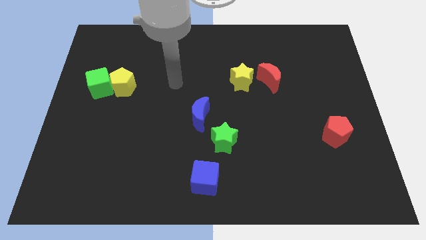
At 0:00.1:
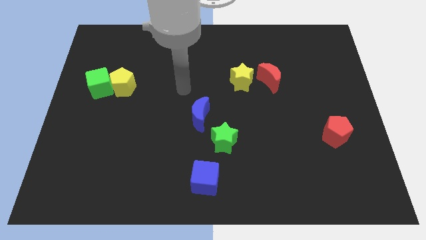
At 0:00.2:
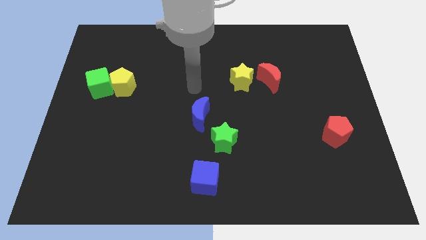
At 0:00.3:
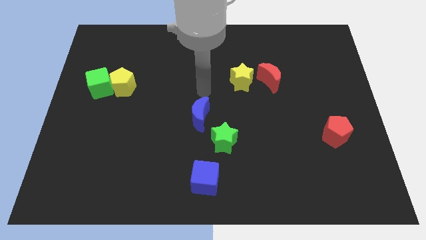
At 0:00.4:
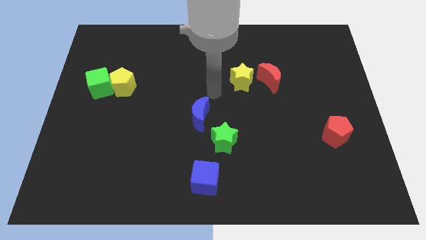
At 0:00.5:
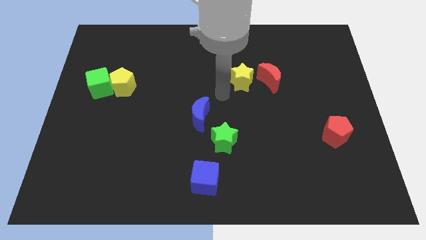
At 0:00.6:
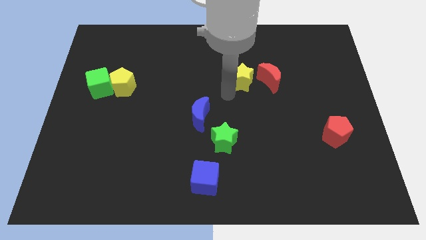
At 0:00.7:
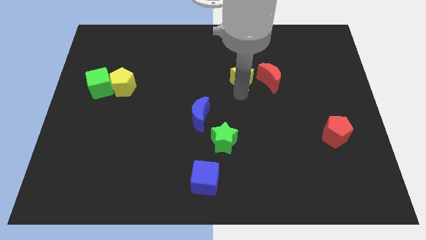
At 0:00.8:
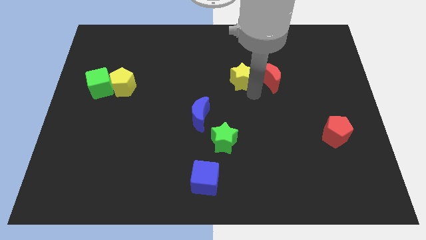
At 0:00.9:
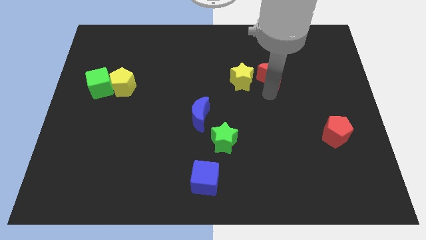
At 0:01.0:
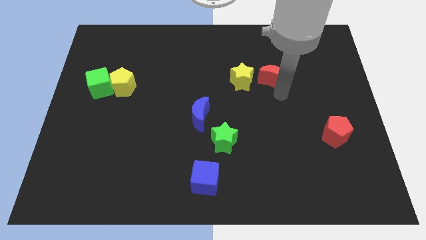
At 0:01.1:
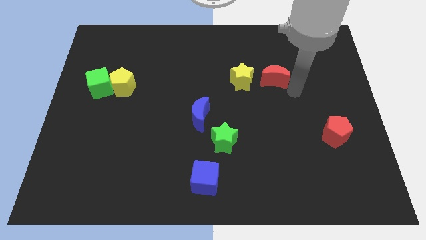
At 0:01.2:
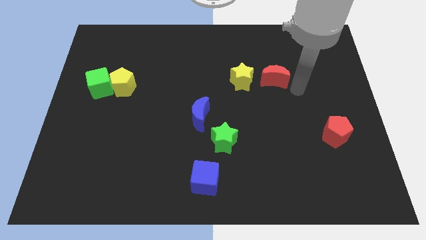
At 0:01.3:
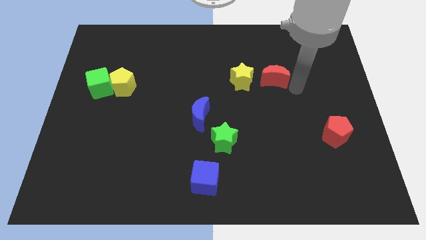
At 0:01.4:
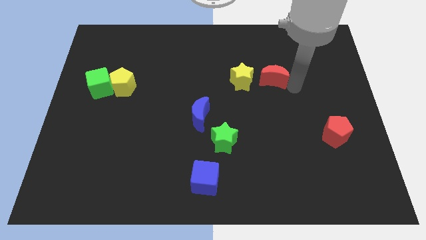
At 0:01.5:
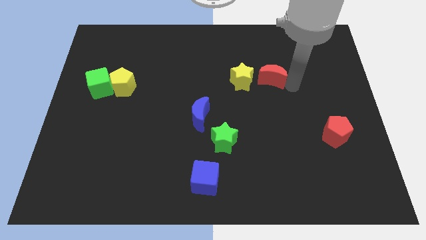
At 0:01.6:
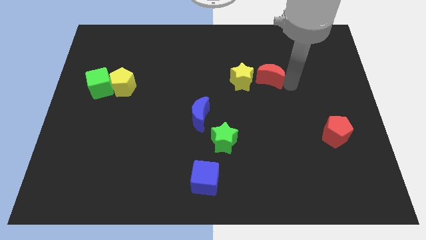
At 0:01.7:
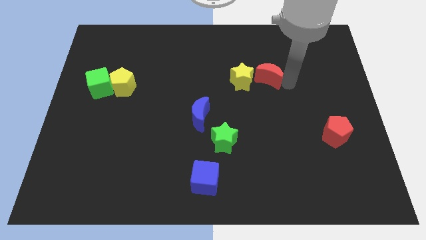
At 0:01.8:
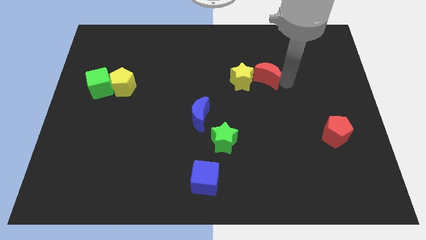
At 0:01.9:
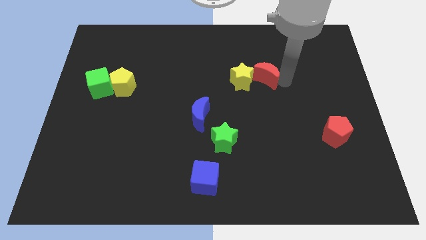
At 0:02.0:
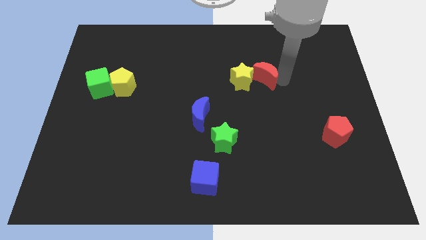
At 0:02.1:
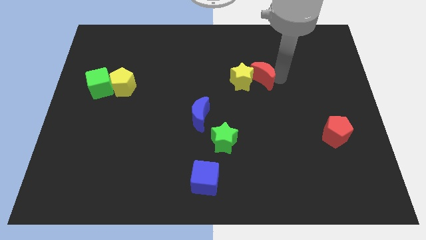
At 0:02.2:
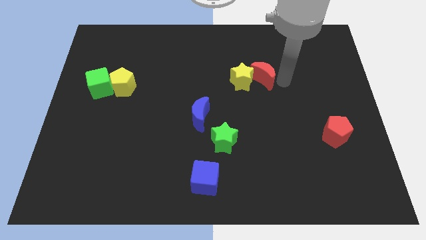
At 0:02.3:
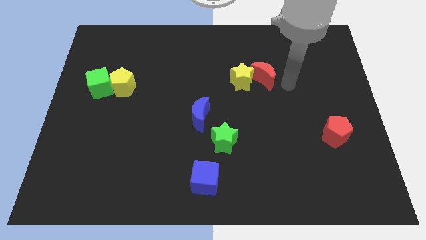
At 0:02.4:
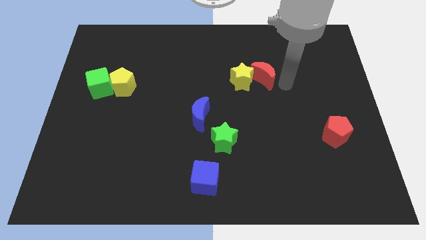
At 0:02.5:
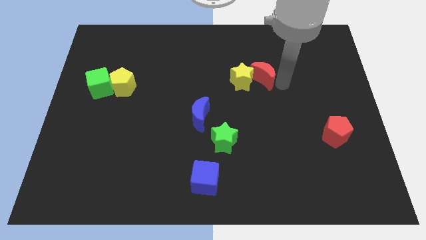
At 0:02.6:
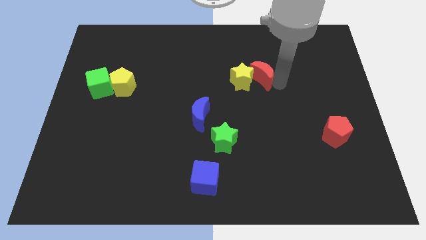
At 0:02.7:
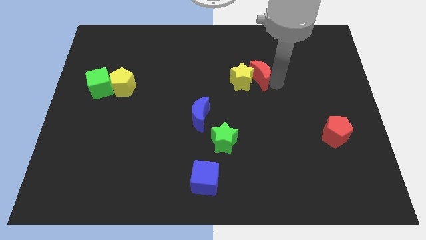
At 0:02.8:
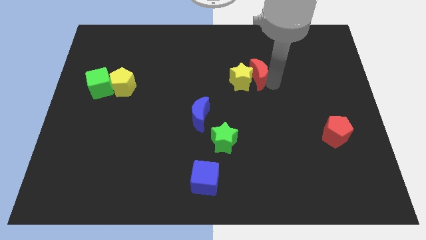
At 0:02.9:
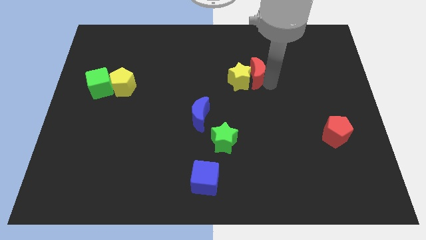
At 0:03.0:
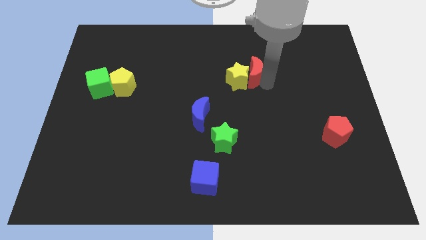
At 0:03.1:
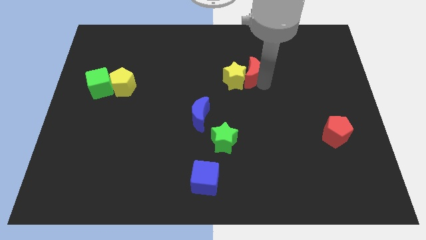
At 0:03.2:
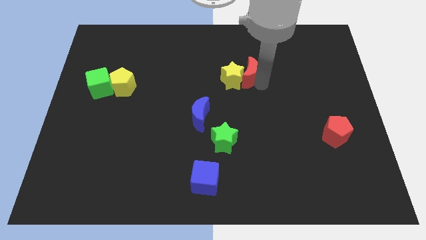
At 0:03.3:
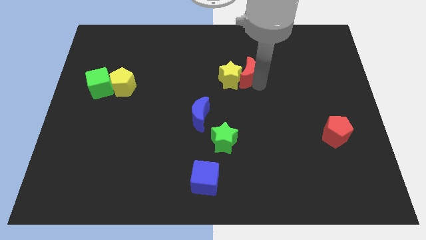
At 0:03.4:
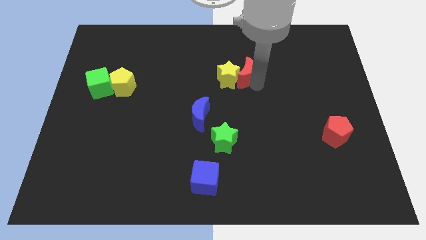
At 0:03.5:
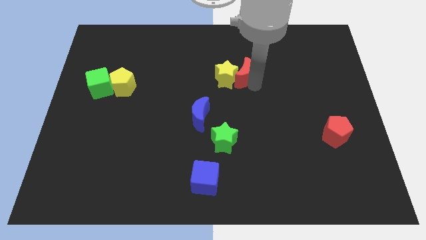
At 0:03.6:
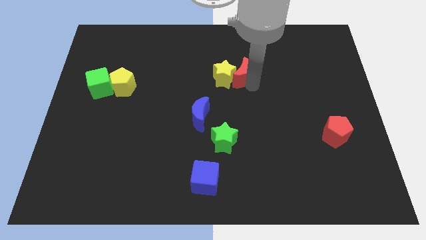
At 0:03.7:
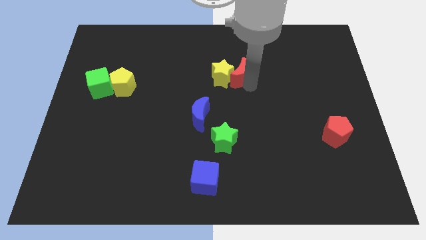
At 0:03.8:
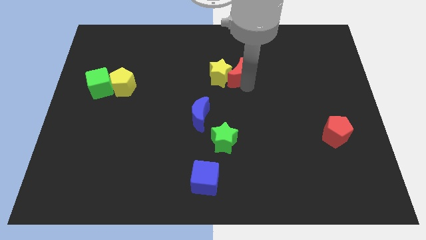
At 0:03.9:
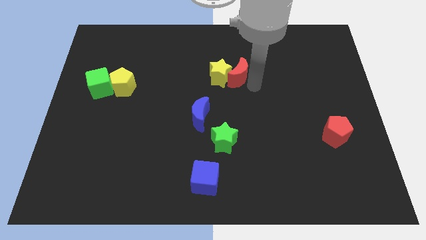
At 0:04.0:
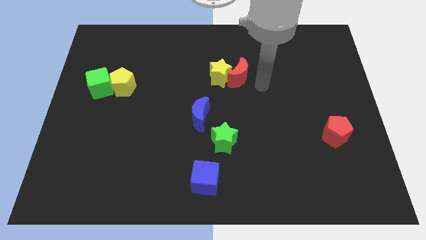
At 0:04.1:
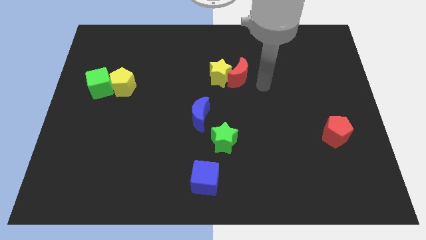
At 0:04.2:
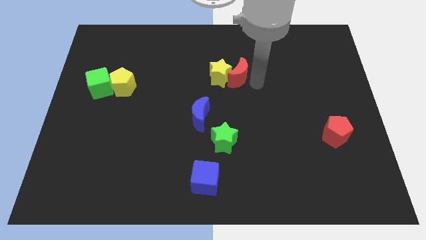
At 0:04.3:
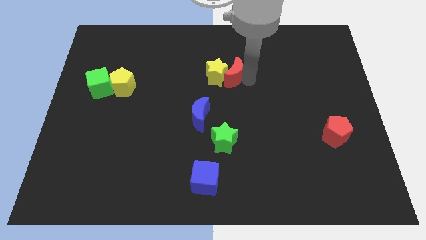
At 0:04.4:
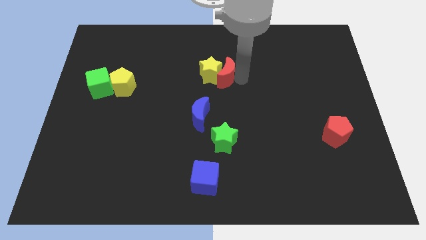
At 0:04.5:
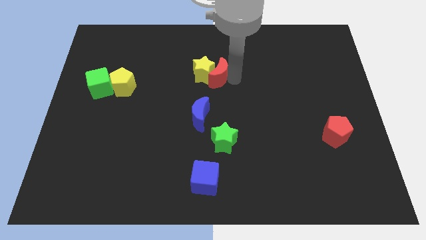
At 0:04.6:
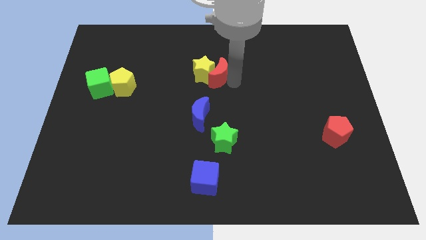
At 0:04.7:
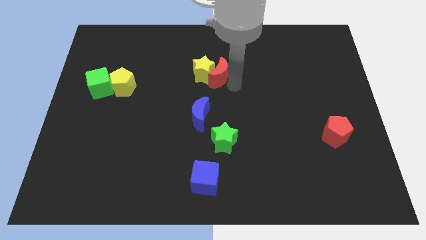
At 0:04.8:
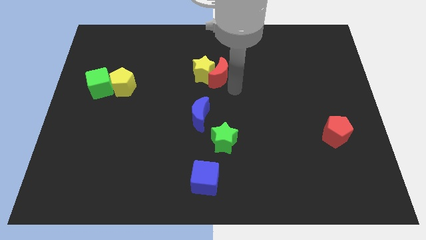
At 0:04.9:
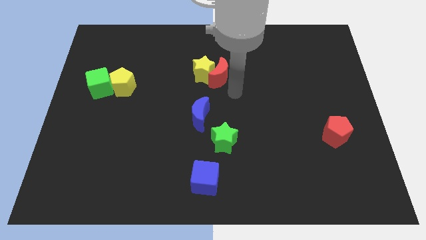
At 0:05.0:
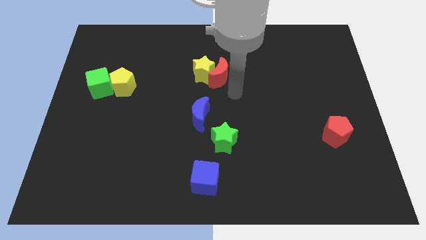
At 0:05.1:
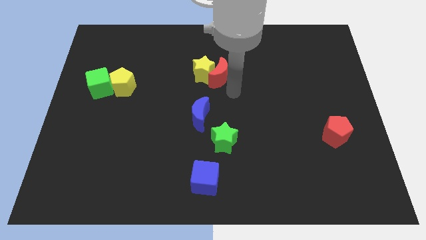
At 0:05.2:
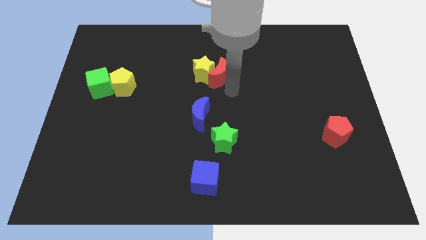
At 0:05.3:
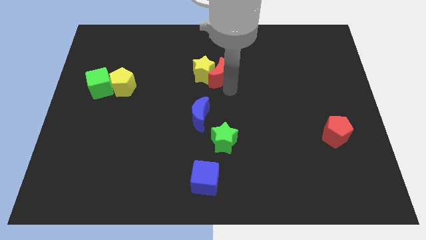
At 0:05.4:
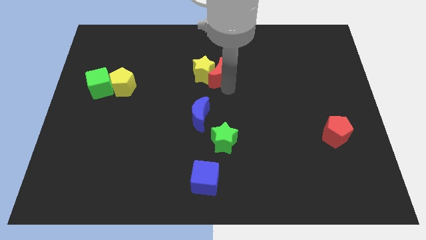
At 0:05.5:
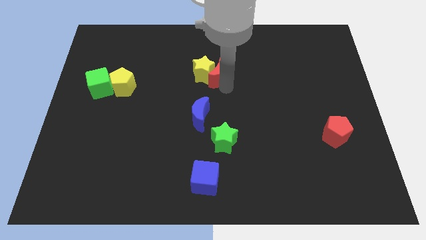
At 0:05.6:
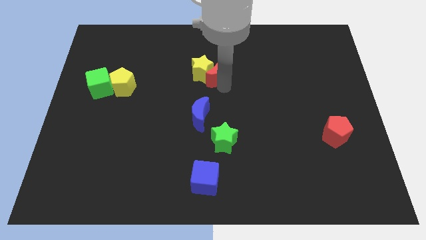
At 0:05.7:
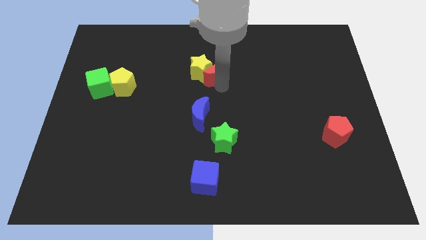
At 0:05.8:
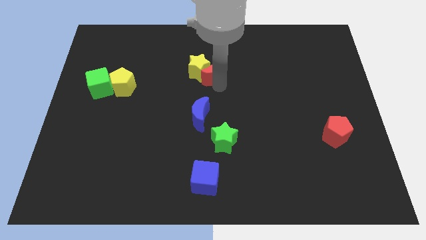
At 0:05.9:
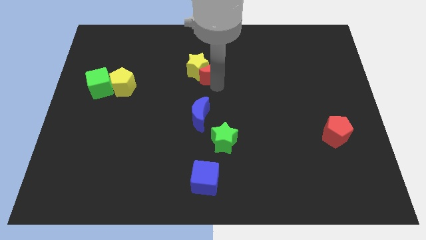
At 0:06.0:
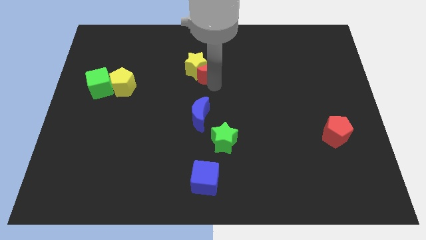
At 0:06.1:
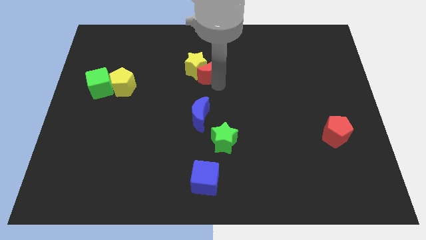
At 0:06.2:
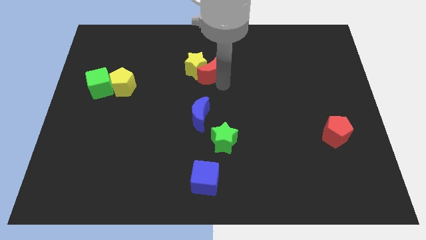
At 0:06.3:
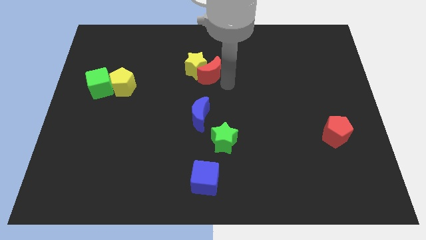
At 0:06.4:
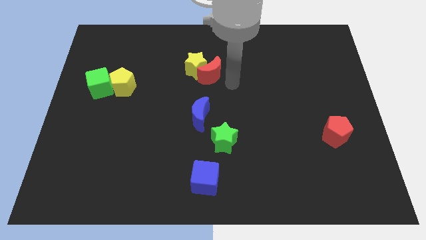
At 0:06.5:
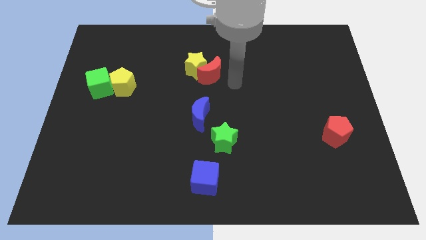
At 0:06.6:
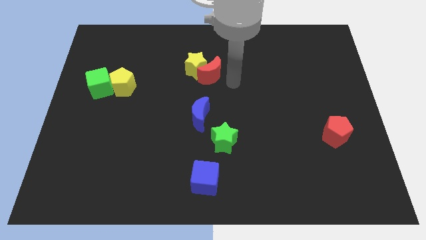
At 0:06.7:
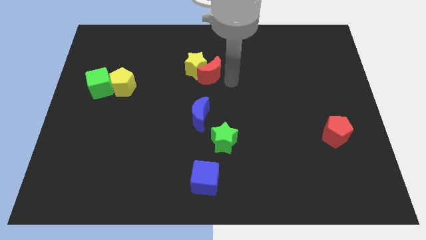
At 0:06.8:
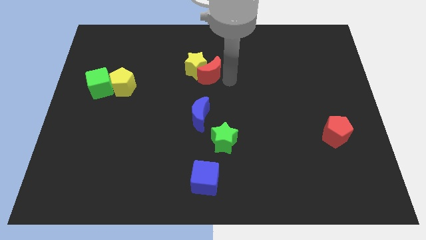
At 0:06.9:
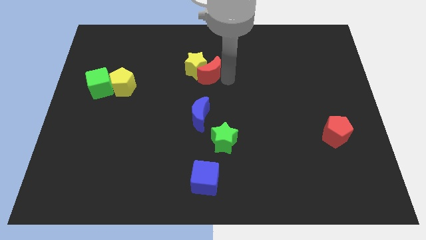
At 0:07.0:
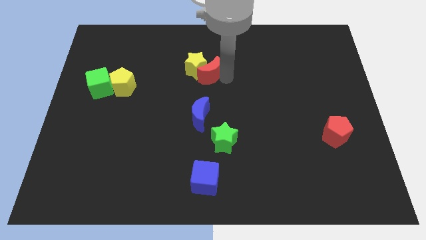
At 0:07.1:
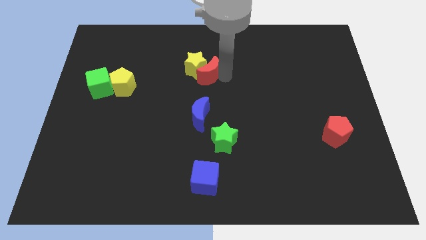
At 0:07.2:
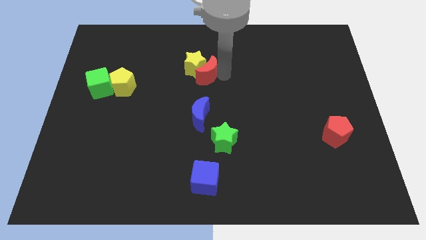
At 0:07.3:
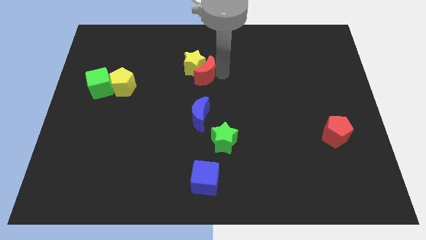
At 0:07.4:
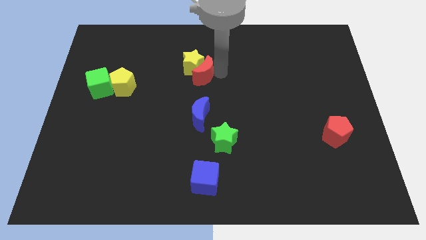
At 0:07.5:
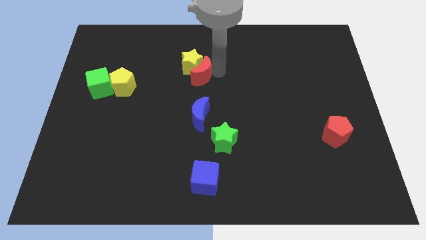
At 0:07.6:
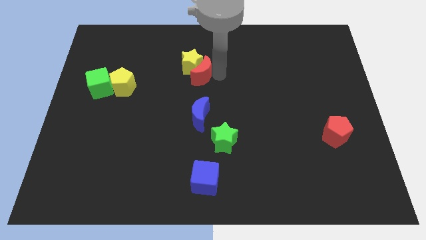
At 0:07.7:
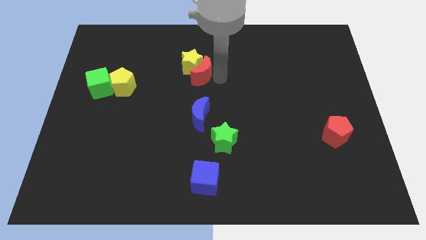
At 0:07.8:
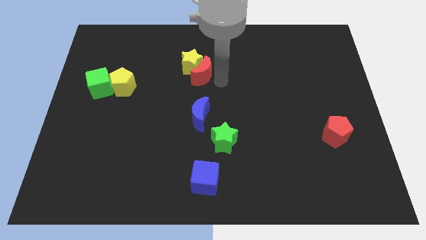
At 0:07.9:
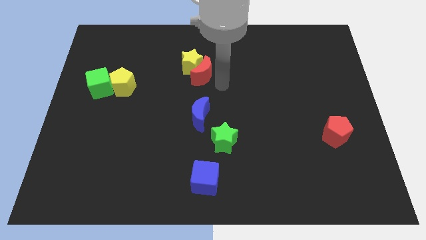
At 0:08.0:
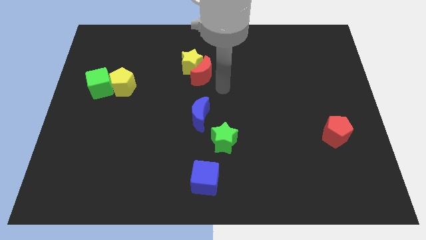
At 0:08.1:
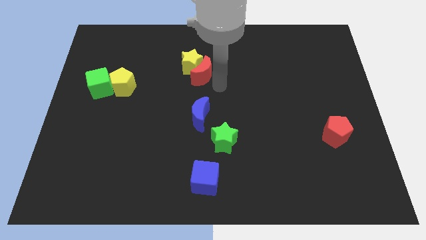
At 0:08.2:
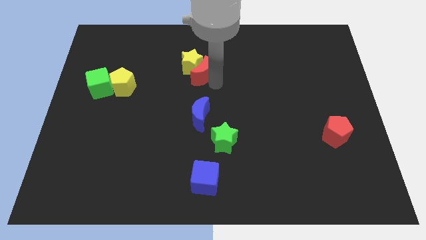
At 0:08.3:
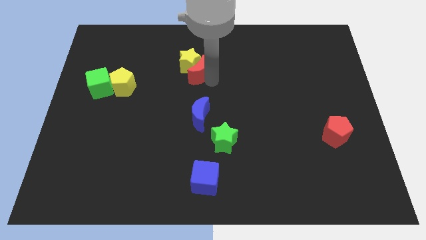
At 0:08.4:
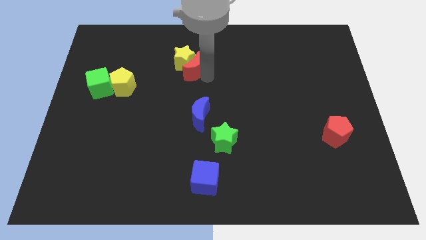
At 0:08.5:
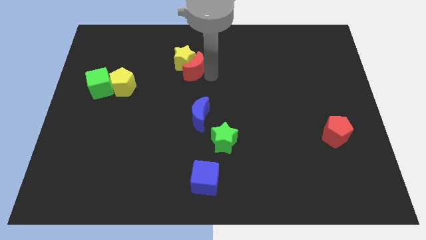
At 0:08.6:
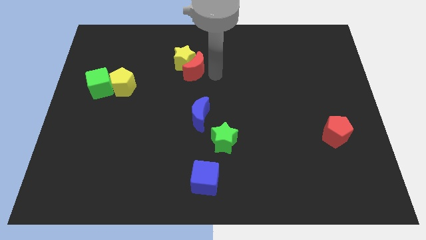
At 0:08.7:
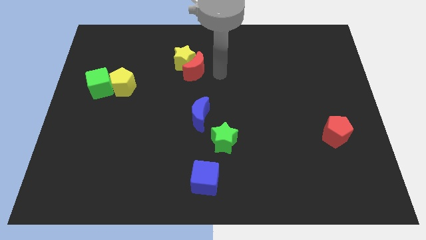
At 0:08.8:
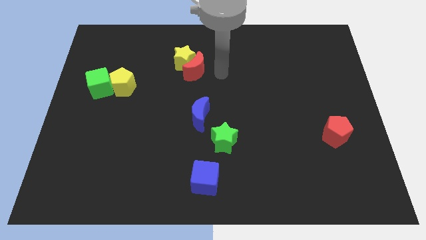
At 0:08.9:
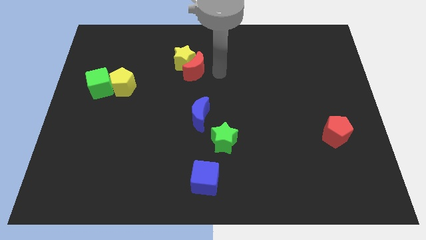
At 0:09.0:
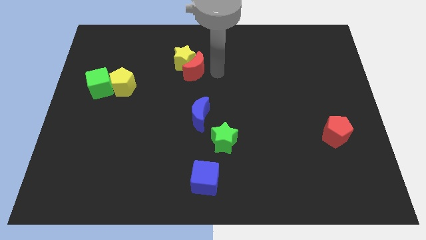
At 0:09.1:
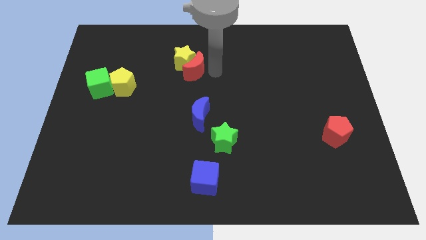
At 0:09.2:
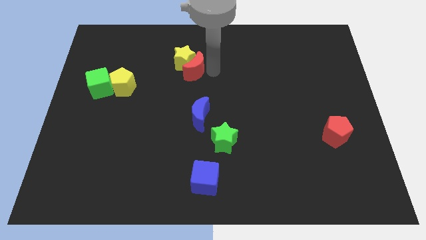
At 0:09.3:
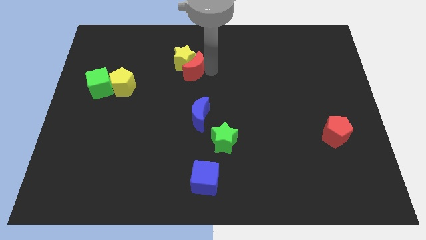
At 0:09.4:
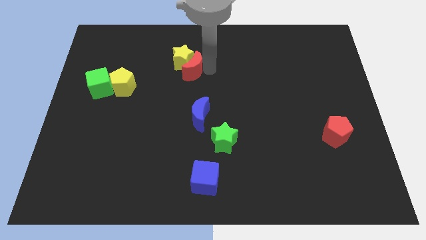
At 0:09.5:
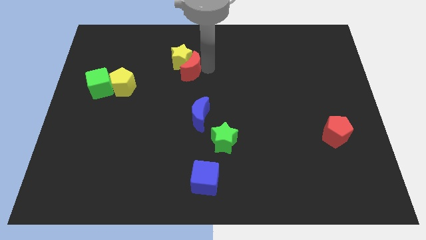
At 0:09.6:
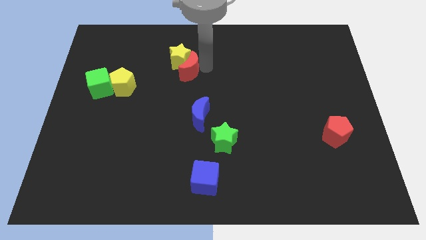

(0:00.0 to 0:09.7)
slide the red moon to the left
